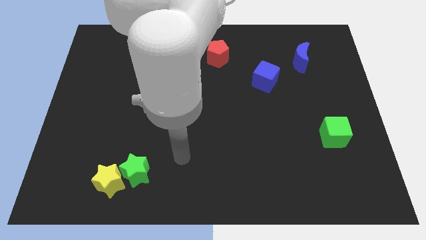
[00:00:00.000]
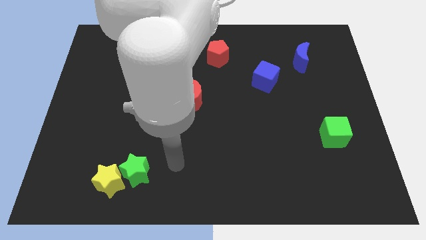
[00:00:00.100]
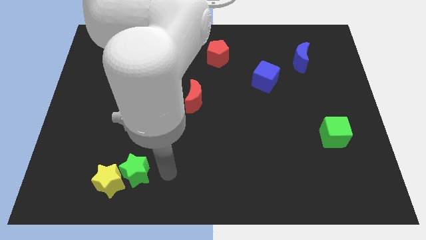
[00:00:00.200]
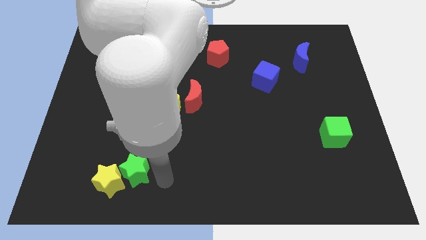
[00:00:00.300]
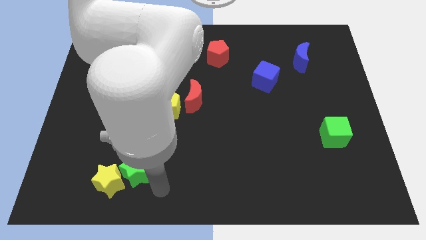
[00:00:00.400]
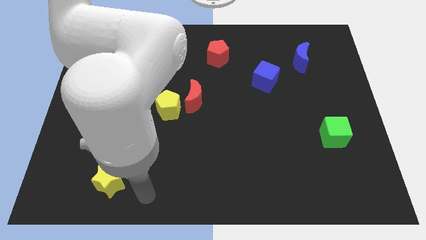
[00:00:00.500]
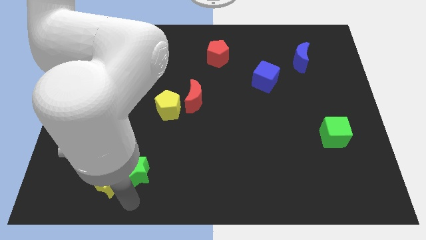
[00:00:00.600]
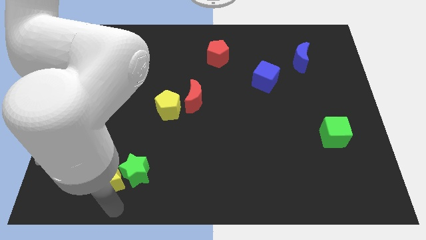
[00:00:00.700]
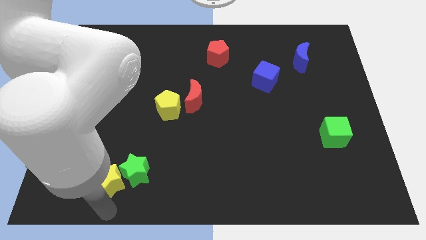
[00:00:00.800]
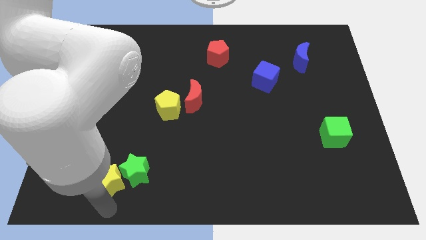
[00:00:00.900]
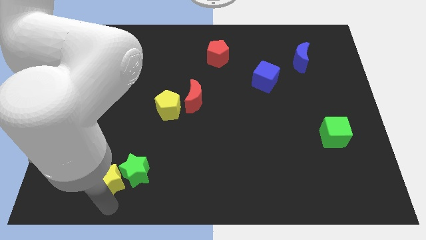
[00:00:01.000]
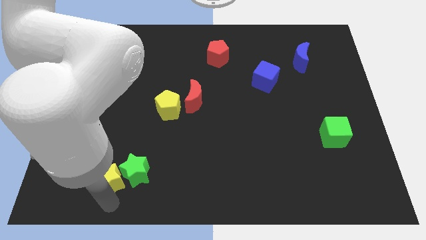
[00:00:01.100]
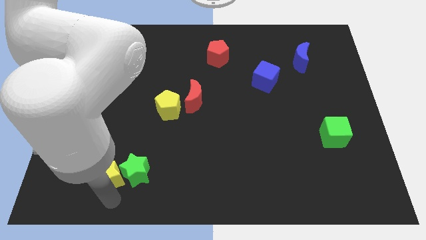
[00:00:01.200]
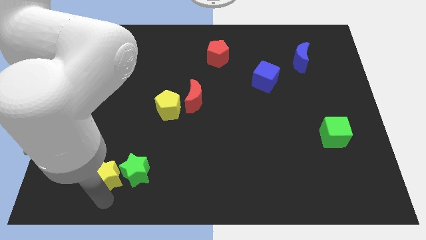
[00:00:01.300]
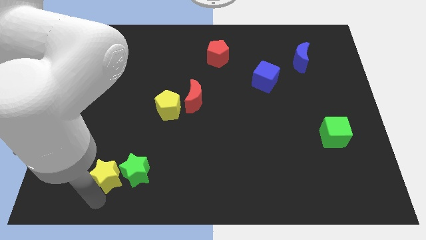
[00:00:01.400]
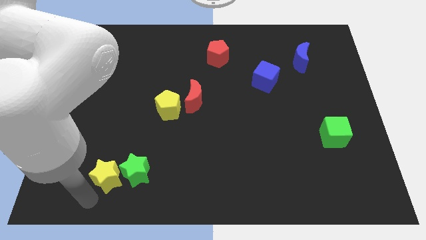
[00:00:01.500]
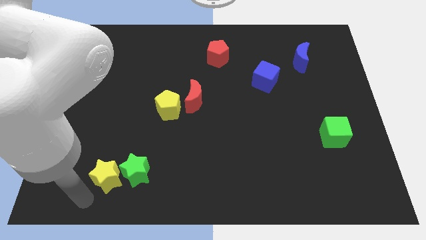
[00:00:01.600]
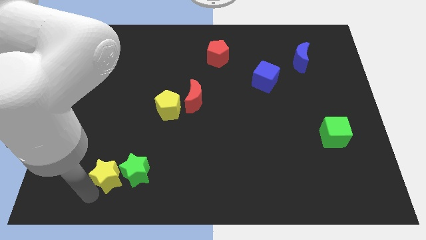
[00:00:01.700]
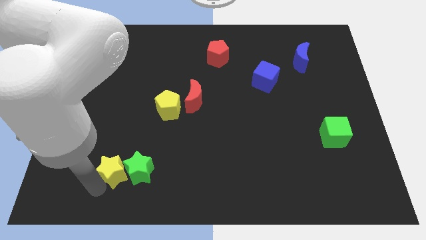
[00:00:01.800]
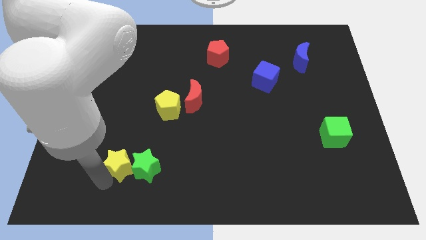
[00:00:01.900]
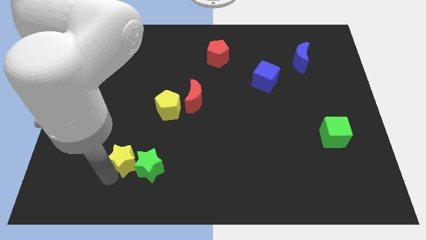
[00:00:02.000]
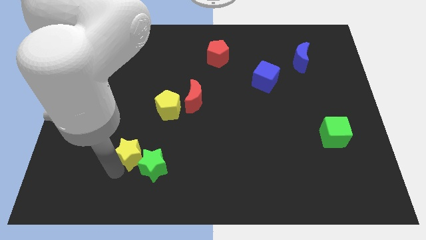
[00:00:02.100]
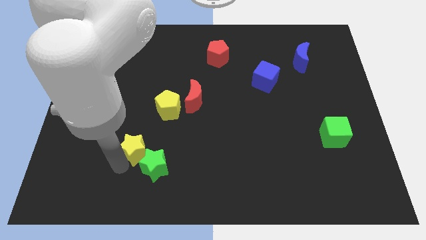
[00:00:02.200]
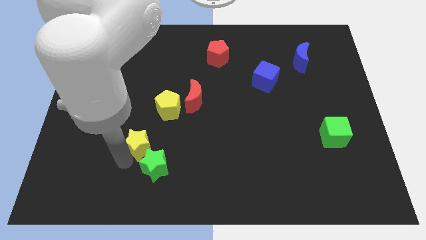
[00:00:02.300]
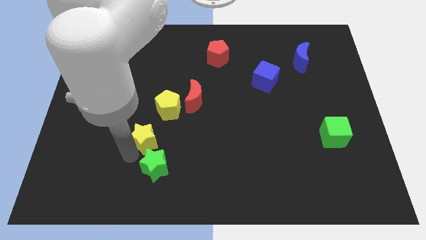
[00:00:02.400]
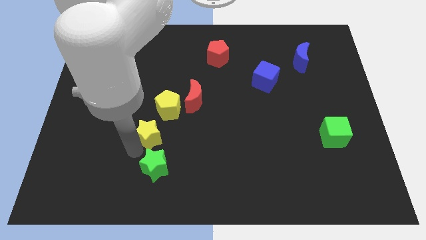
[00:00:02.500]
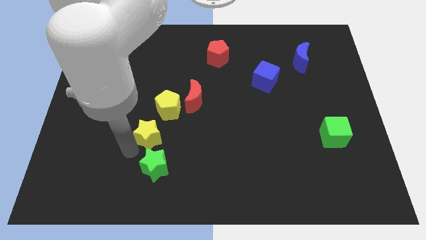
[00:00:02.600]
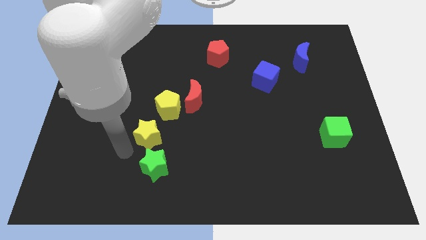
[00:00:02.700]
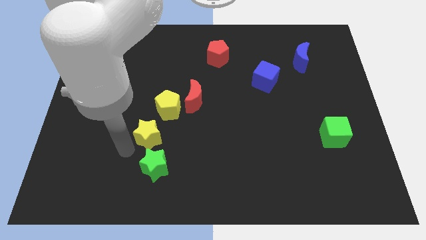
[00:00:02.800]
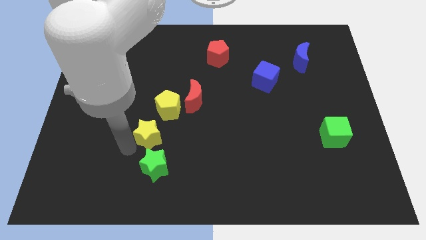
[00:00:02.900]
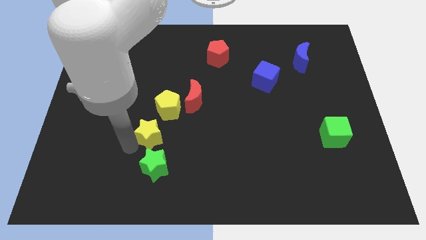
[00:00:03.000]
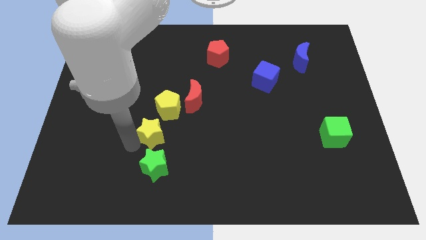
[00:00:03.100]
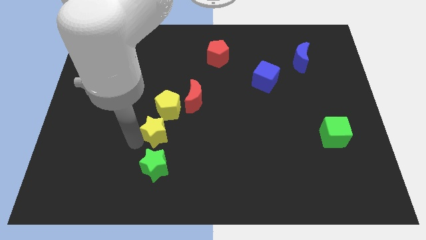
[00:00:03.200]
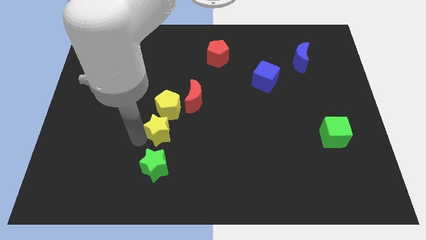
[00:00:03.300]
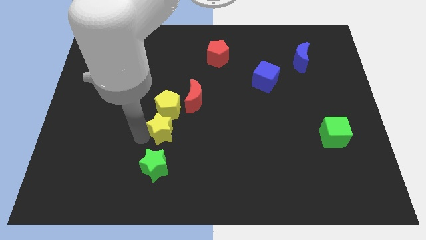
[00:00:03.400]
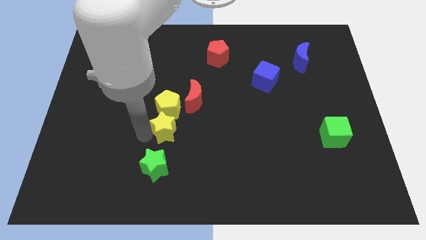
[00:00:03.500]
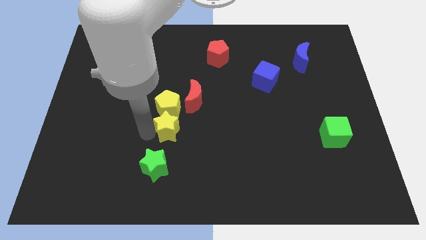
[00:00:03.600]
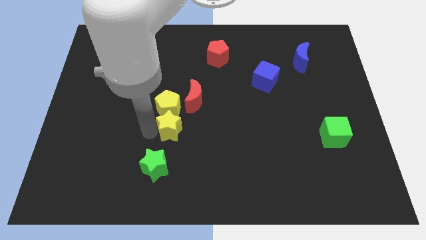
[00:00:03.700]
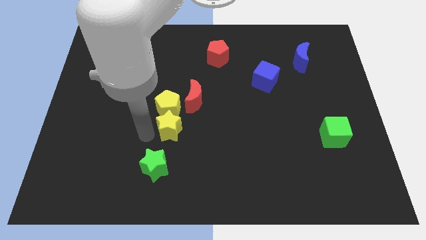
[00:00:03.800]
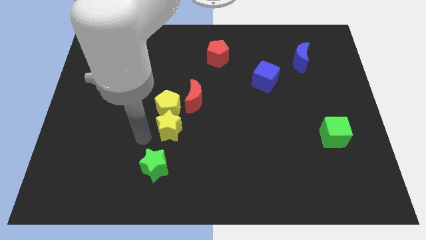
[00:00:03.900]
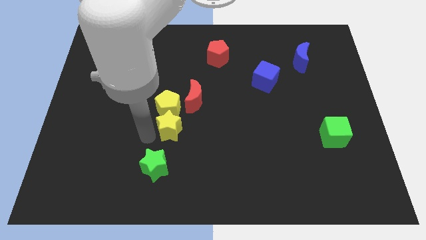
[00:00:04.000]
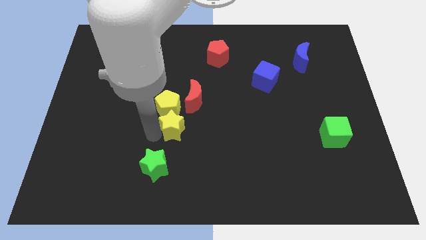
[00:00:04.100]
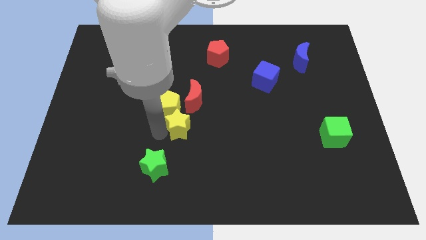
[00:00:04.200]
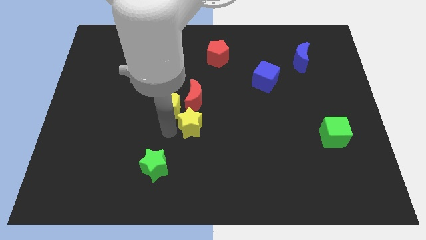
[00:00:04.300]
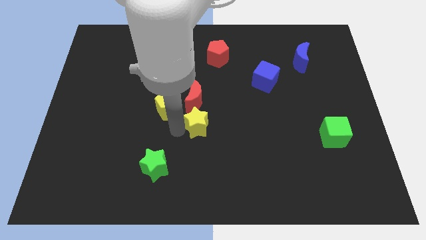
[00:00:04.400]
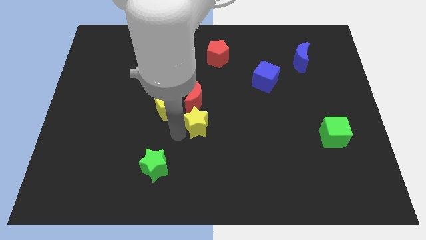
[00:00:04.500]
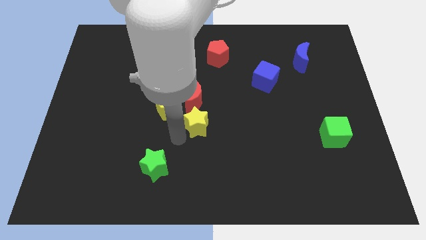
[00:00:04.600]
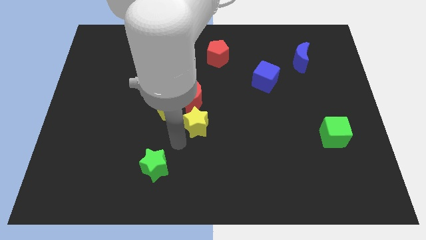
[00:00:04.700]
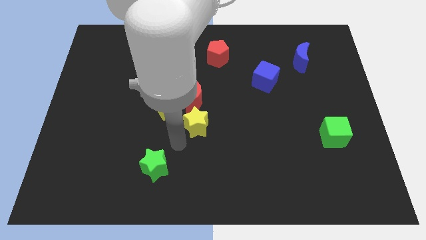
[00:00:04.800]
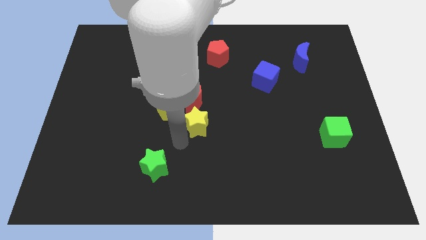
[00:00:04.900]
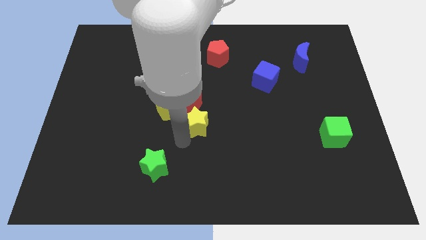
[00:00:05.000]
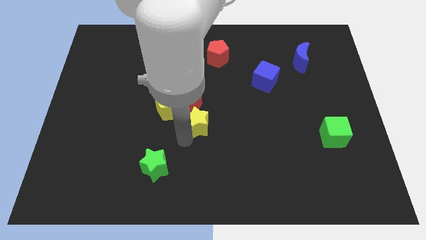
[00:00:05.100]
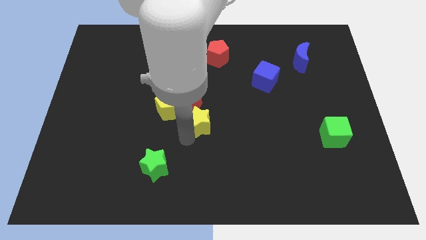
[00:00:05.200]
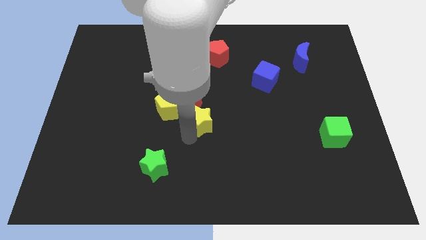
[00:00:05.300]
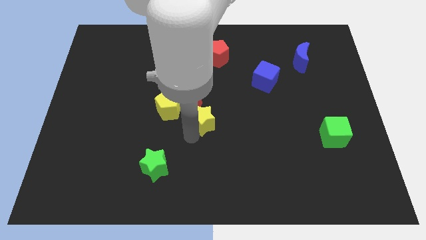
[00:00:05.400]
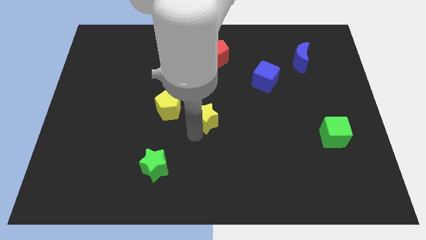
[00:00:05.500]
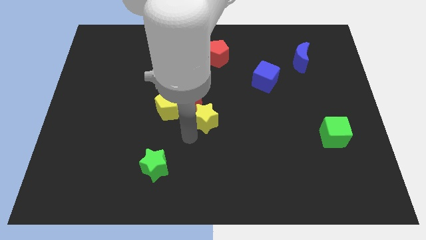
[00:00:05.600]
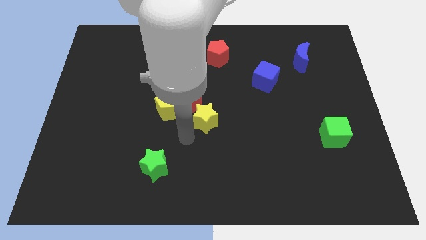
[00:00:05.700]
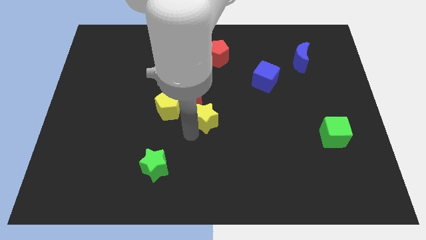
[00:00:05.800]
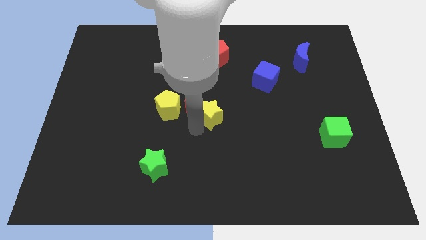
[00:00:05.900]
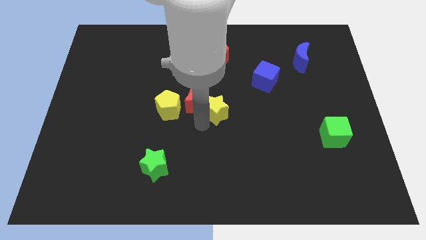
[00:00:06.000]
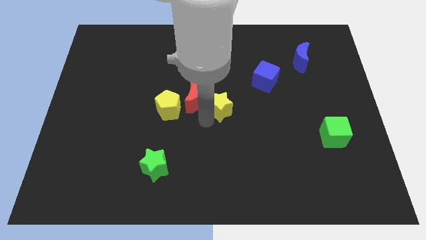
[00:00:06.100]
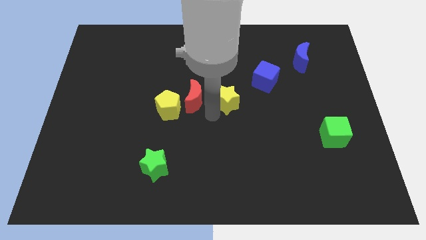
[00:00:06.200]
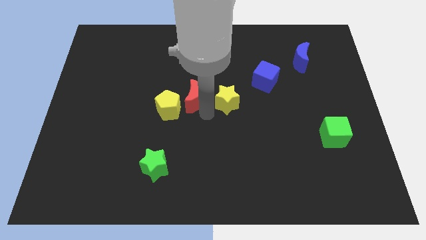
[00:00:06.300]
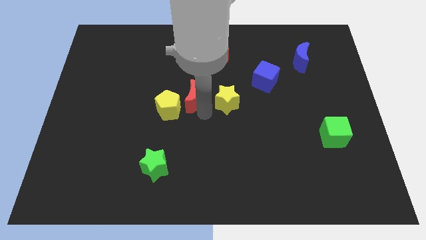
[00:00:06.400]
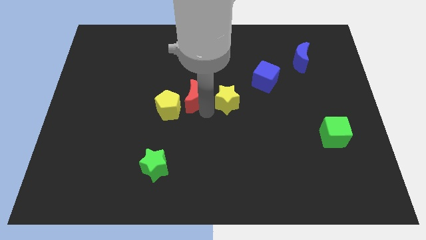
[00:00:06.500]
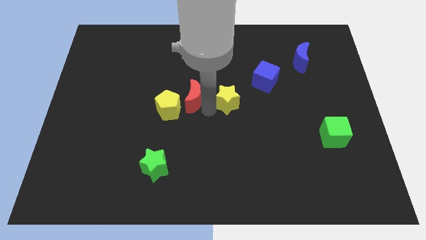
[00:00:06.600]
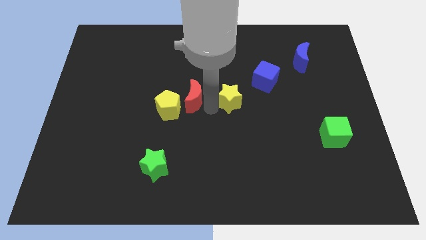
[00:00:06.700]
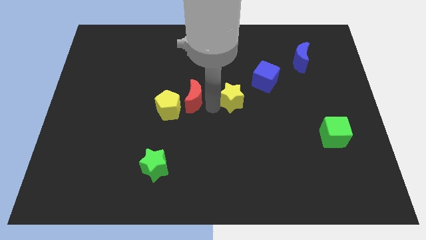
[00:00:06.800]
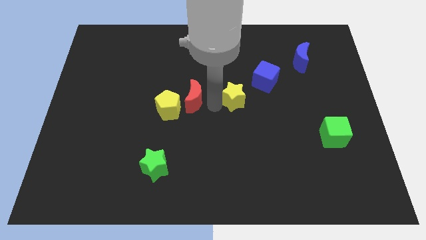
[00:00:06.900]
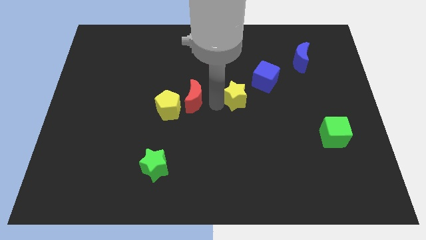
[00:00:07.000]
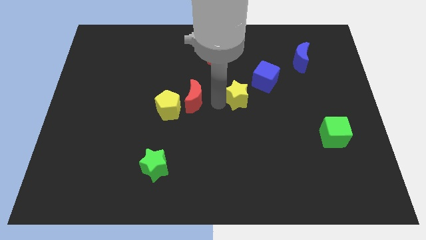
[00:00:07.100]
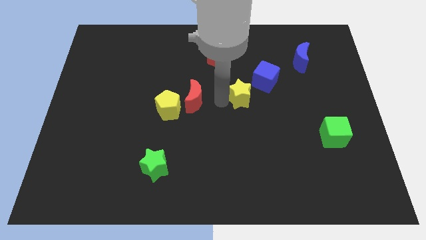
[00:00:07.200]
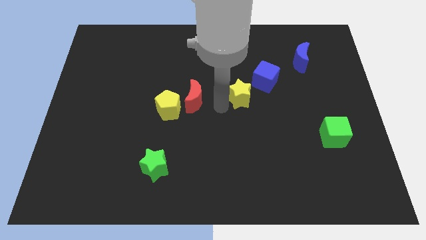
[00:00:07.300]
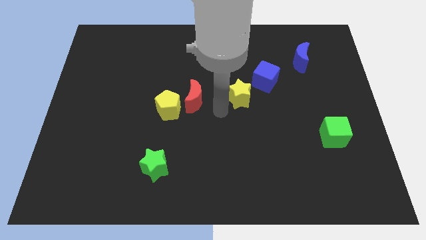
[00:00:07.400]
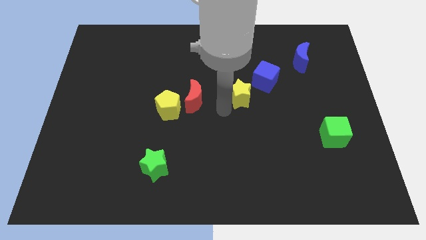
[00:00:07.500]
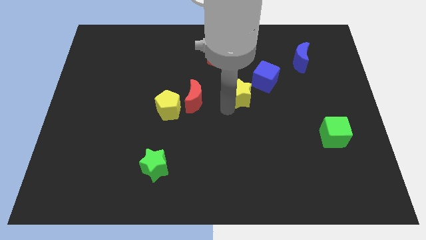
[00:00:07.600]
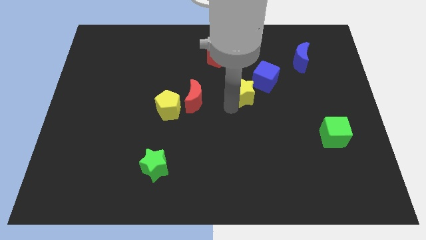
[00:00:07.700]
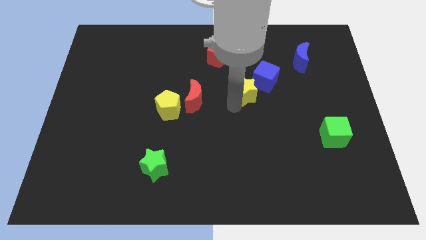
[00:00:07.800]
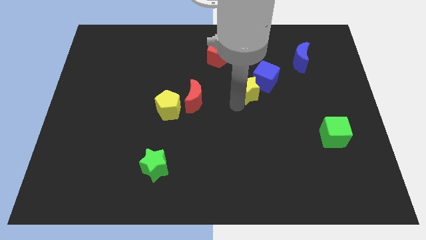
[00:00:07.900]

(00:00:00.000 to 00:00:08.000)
slide the yellow star close to the blue cube
